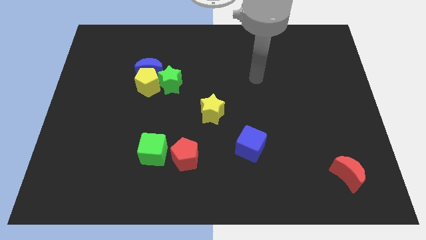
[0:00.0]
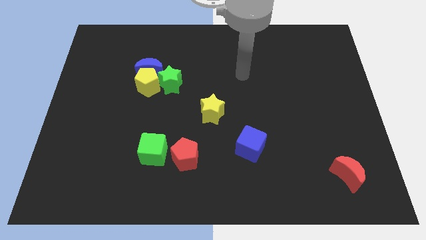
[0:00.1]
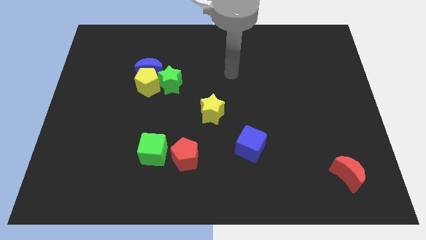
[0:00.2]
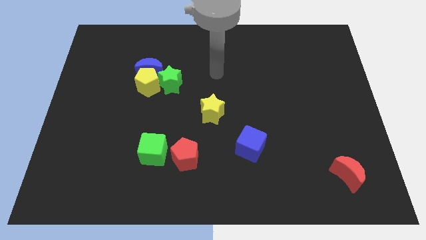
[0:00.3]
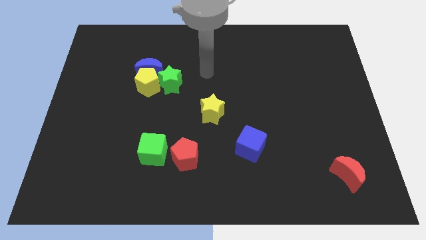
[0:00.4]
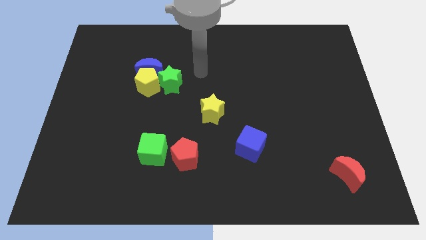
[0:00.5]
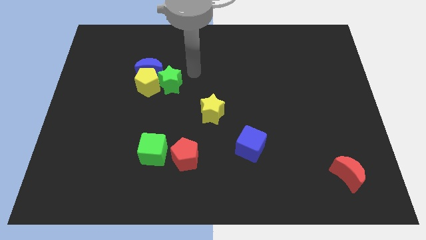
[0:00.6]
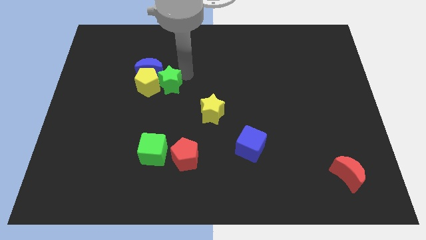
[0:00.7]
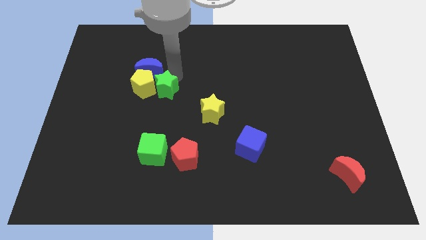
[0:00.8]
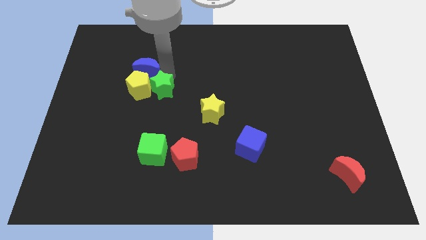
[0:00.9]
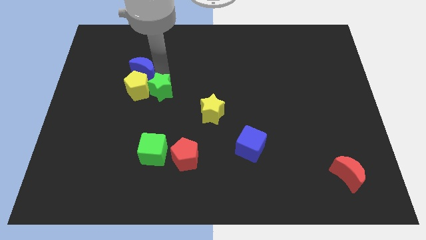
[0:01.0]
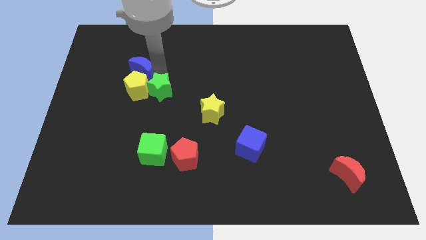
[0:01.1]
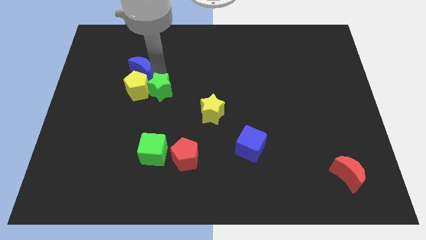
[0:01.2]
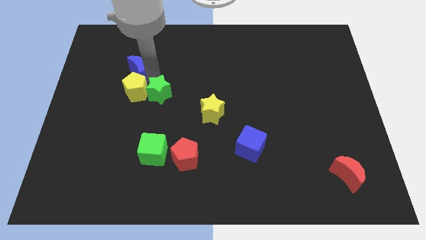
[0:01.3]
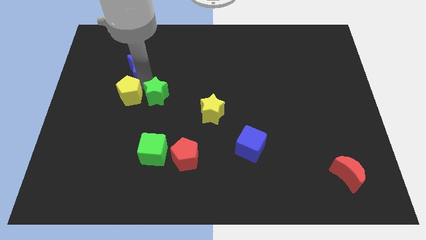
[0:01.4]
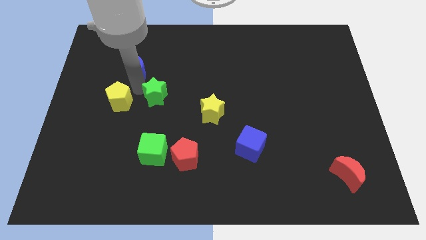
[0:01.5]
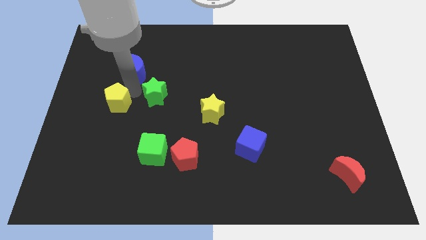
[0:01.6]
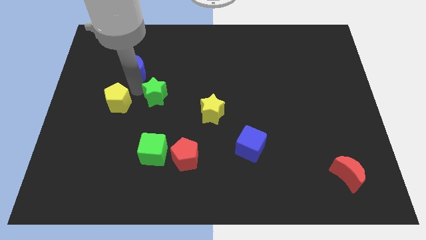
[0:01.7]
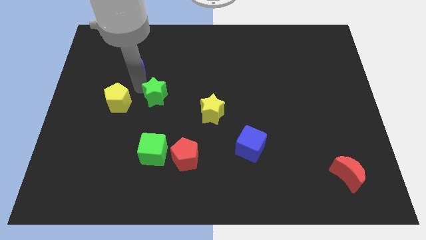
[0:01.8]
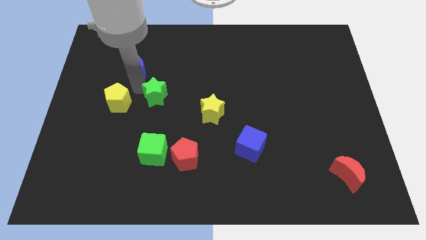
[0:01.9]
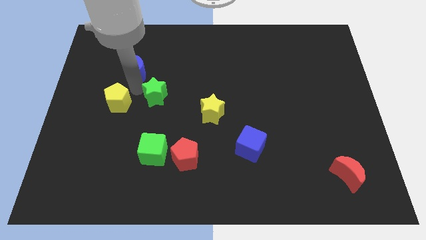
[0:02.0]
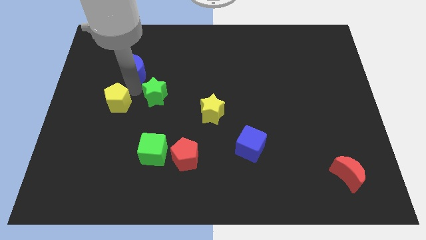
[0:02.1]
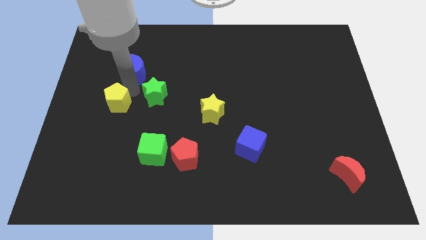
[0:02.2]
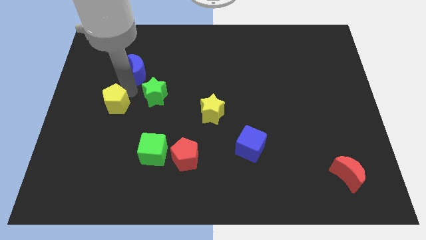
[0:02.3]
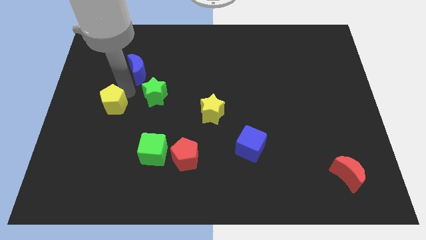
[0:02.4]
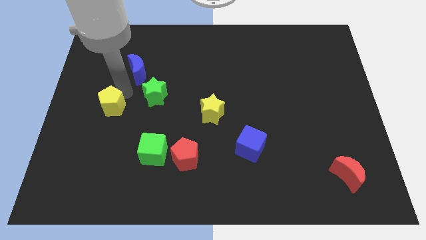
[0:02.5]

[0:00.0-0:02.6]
move the yellow pentagon away from the blue moon and green star

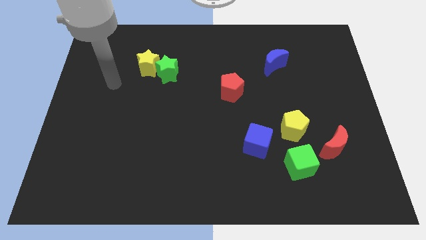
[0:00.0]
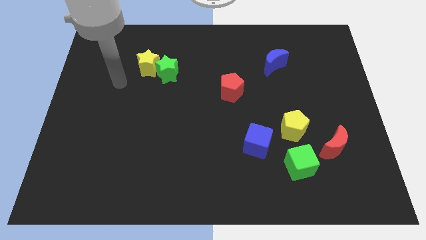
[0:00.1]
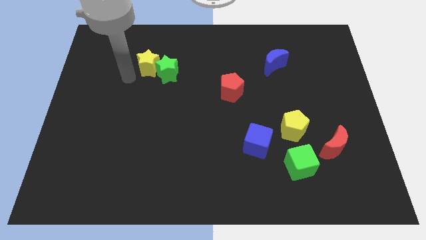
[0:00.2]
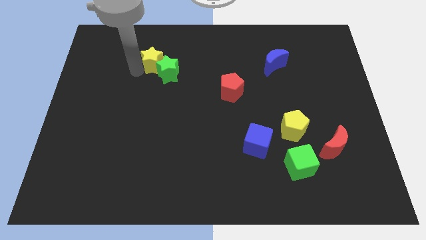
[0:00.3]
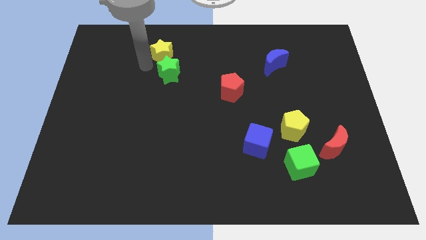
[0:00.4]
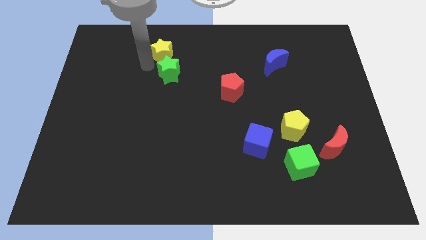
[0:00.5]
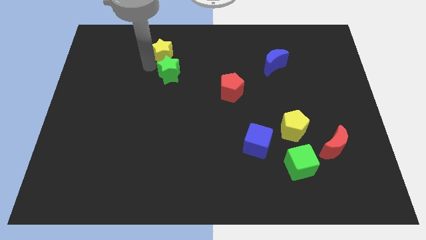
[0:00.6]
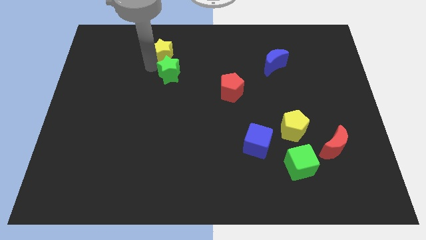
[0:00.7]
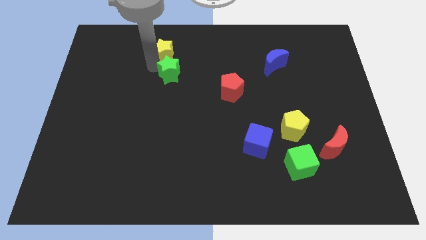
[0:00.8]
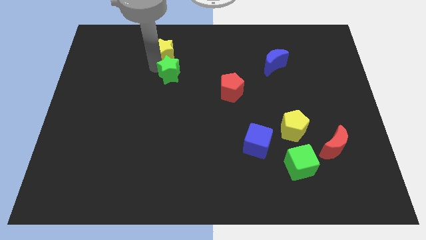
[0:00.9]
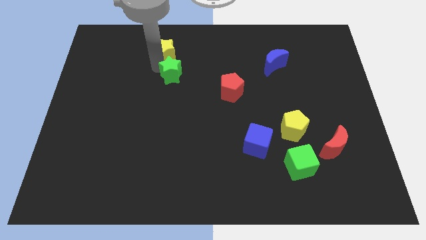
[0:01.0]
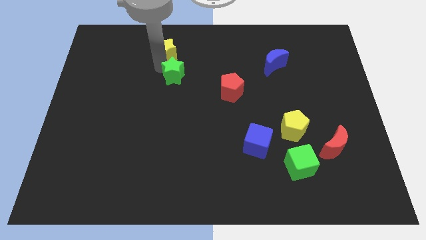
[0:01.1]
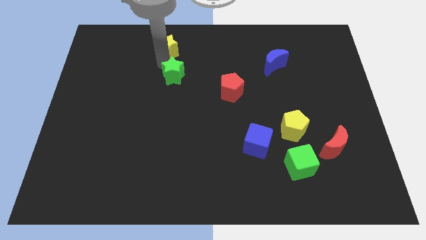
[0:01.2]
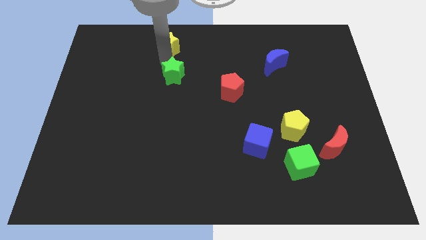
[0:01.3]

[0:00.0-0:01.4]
move the green star away from the yellow star

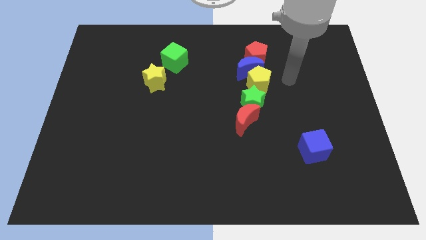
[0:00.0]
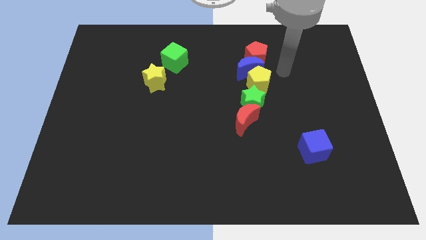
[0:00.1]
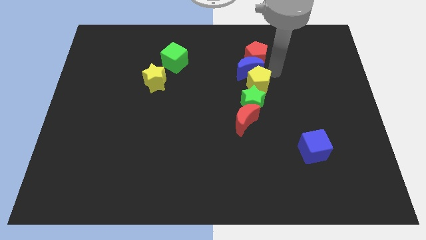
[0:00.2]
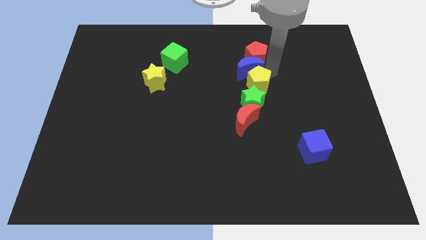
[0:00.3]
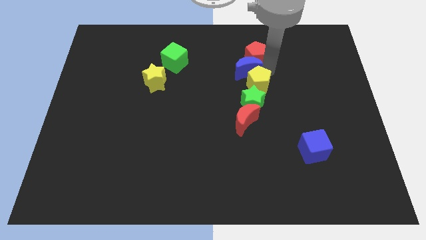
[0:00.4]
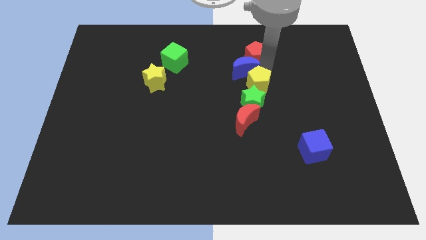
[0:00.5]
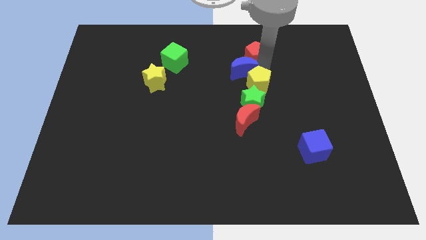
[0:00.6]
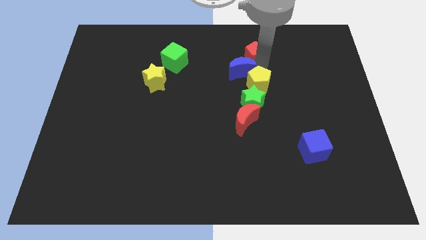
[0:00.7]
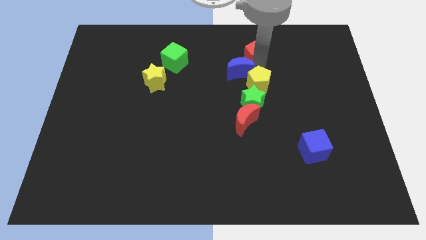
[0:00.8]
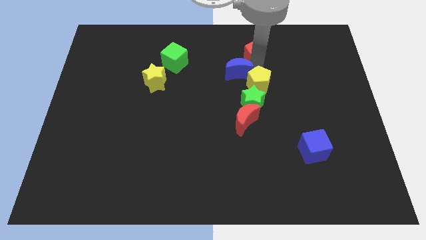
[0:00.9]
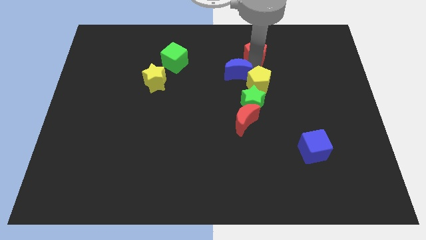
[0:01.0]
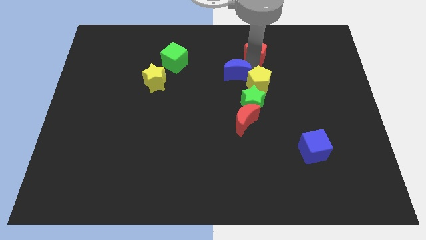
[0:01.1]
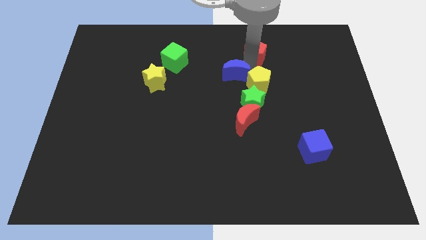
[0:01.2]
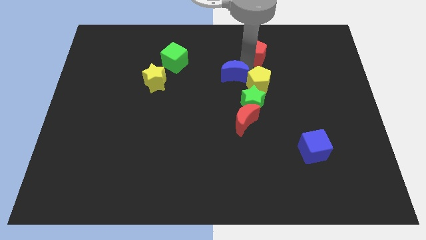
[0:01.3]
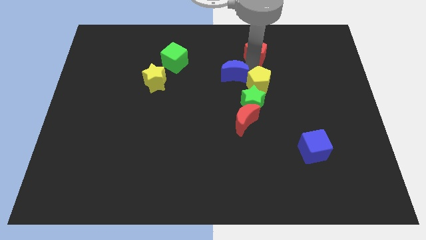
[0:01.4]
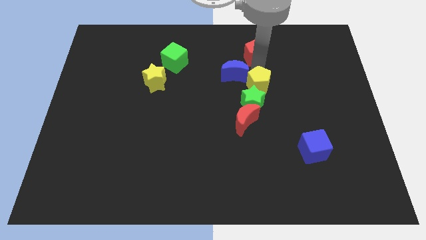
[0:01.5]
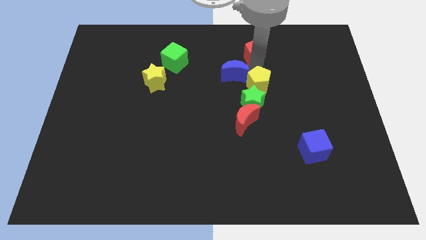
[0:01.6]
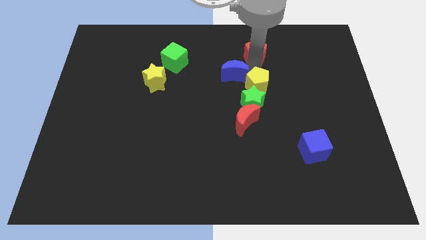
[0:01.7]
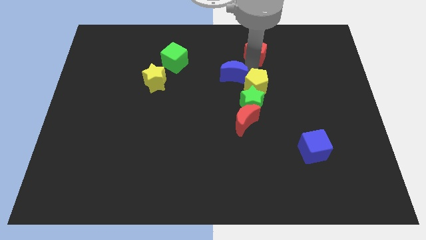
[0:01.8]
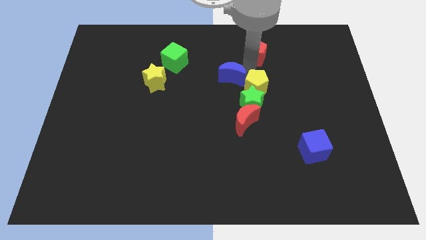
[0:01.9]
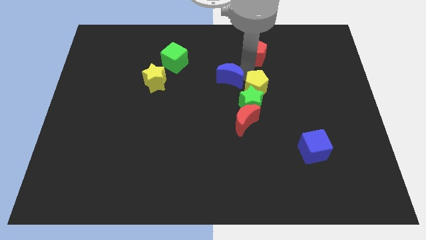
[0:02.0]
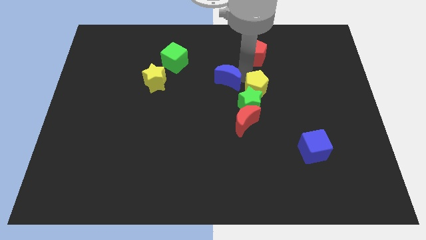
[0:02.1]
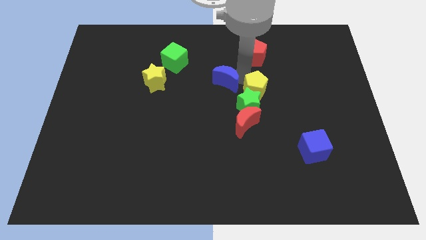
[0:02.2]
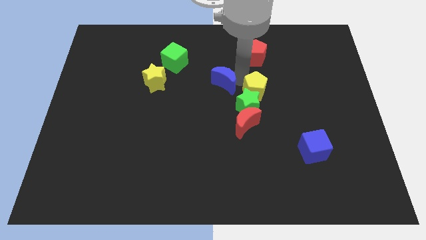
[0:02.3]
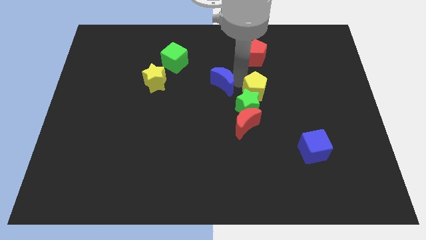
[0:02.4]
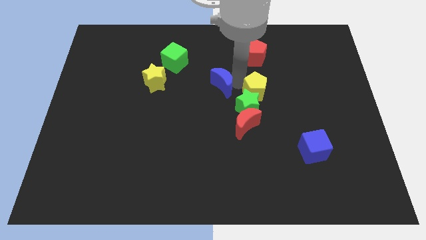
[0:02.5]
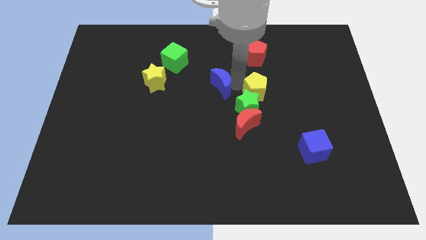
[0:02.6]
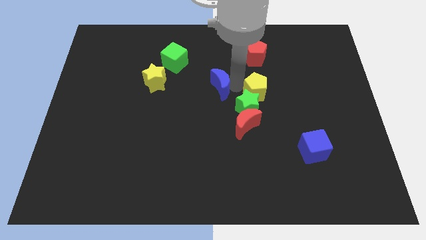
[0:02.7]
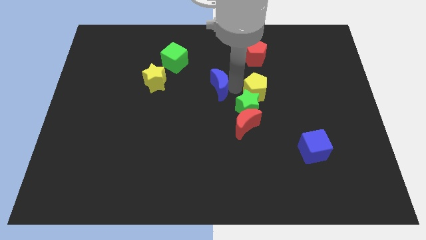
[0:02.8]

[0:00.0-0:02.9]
move the blue moon away from the yellow pentagon and red pentagon

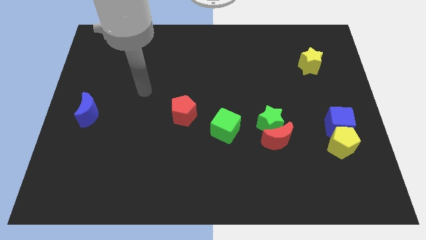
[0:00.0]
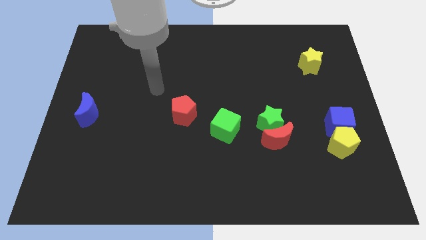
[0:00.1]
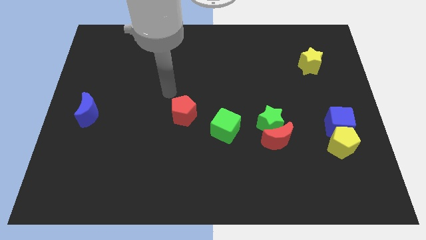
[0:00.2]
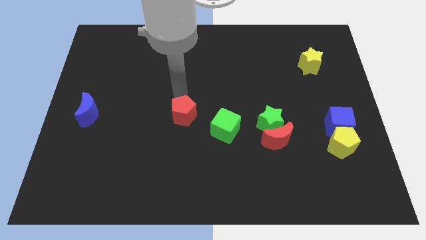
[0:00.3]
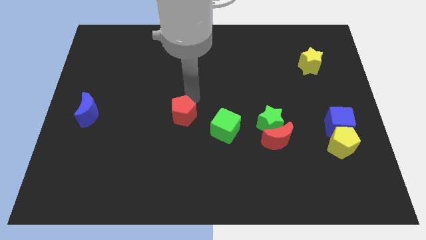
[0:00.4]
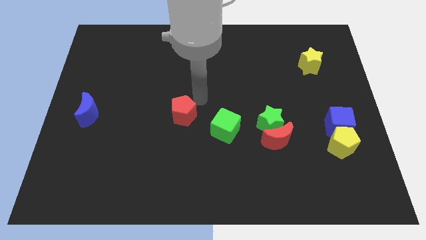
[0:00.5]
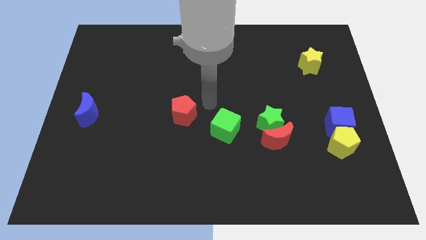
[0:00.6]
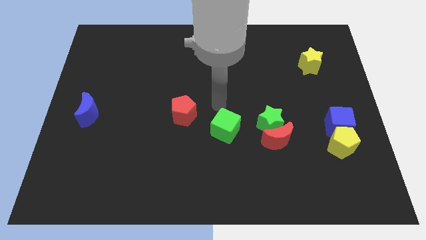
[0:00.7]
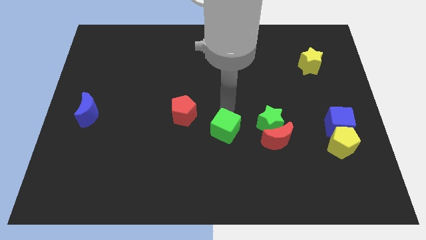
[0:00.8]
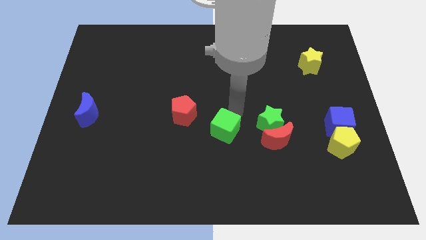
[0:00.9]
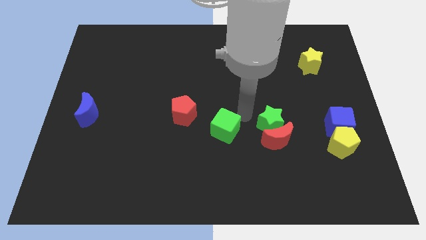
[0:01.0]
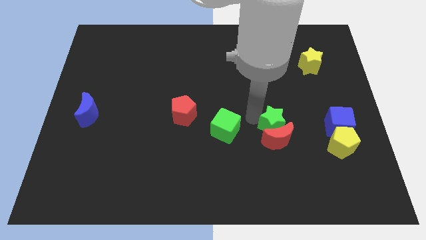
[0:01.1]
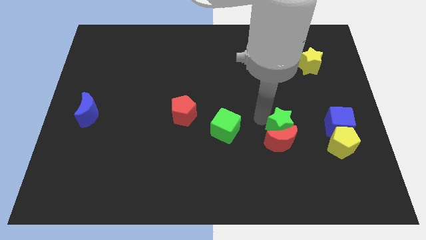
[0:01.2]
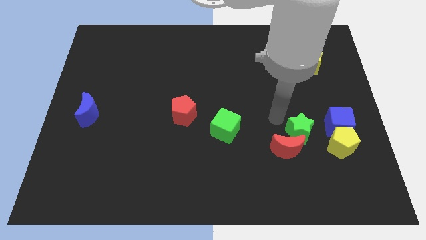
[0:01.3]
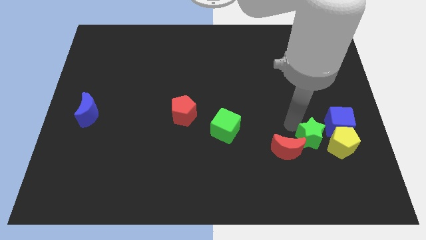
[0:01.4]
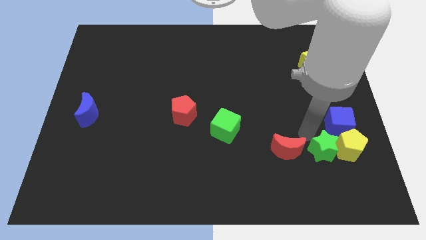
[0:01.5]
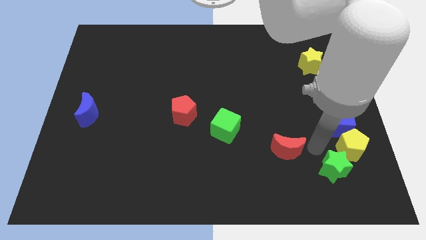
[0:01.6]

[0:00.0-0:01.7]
pull the red moon apart from the green star

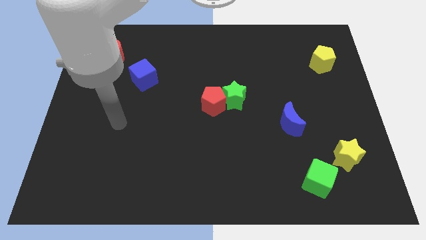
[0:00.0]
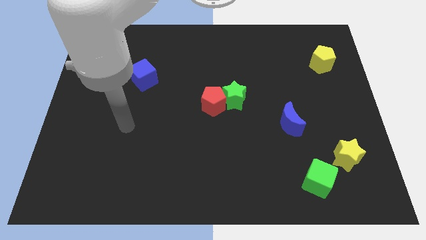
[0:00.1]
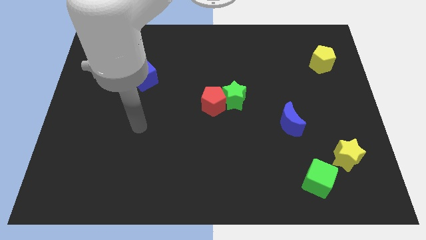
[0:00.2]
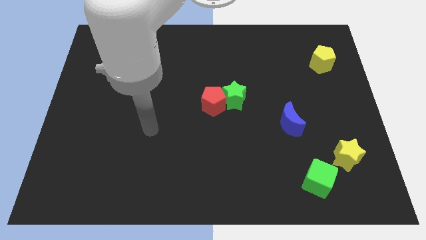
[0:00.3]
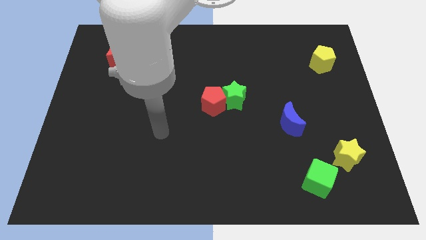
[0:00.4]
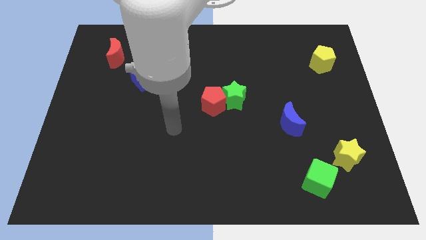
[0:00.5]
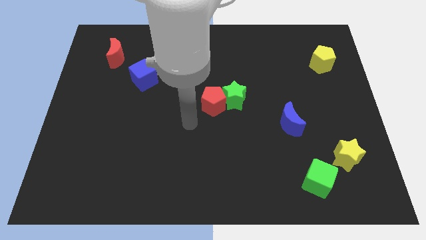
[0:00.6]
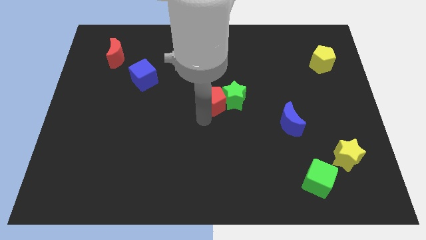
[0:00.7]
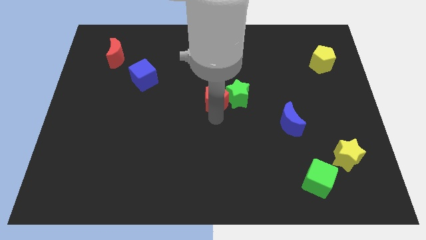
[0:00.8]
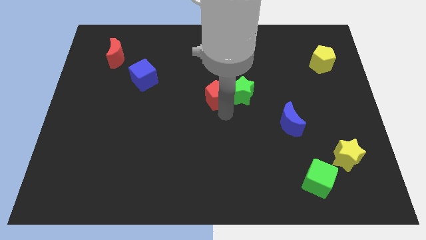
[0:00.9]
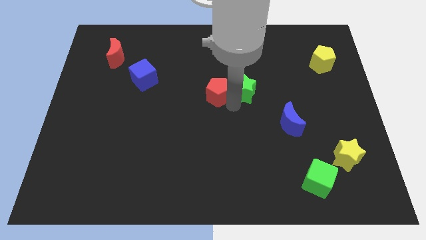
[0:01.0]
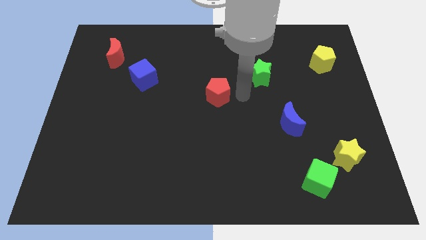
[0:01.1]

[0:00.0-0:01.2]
pull the red pentagon apart from the green star
